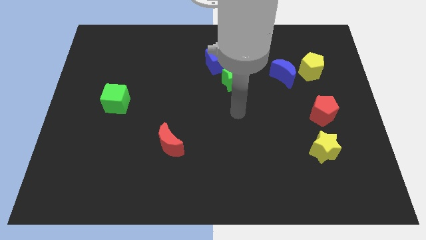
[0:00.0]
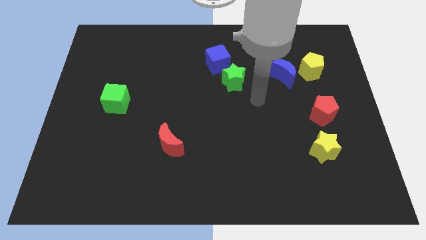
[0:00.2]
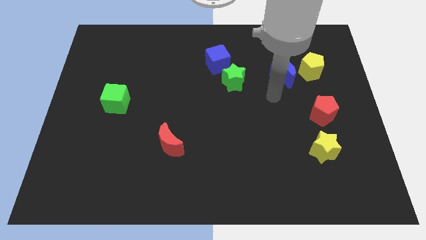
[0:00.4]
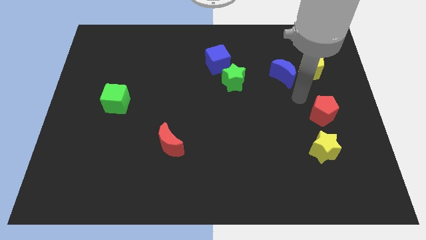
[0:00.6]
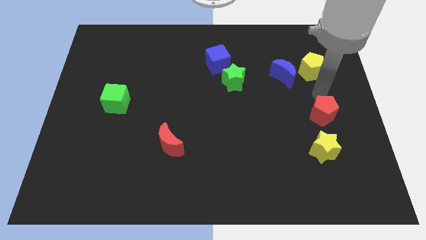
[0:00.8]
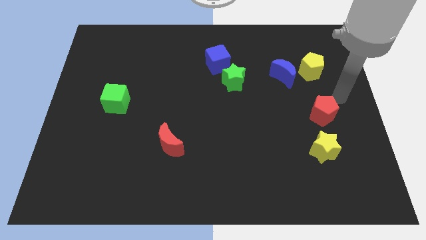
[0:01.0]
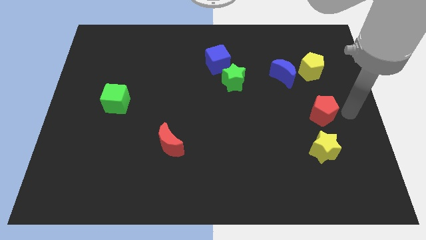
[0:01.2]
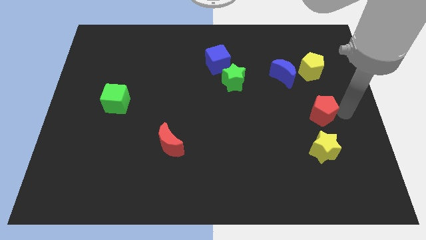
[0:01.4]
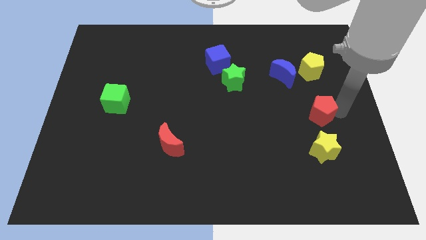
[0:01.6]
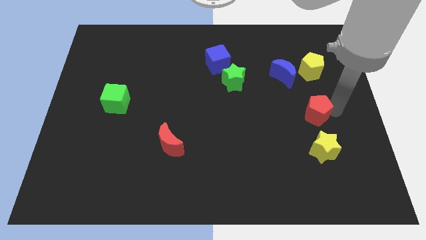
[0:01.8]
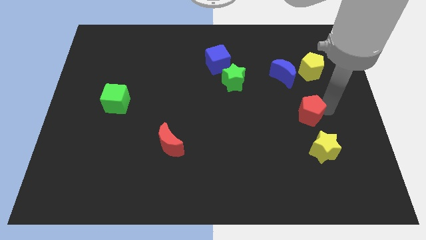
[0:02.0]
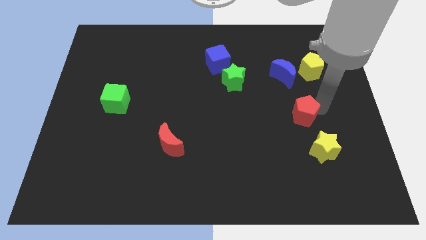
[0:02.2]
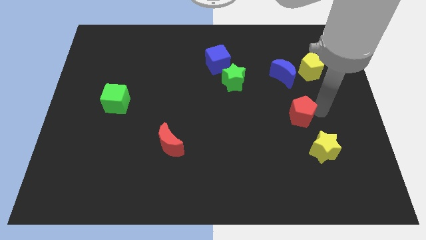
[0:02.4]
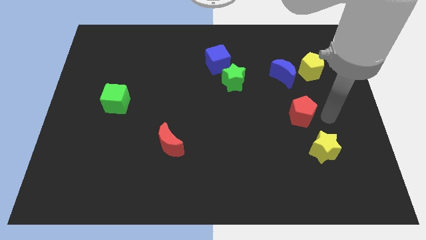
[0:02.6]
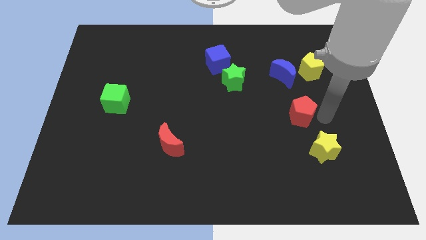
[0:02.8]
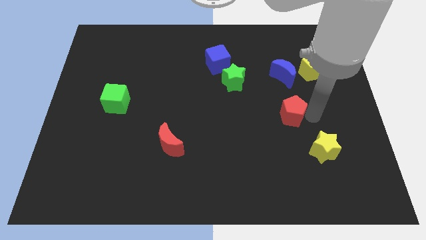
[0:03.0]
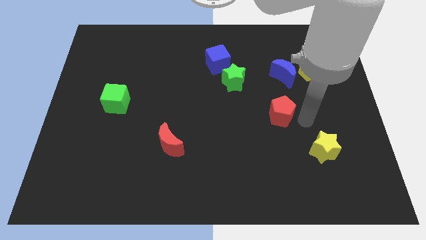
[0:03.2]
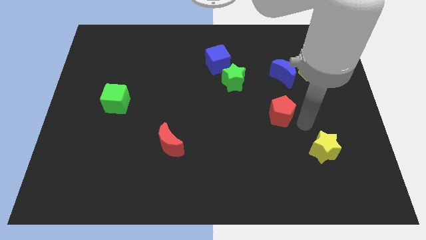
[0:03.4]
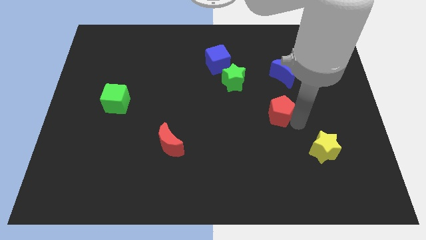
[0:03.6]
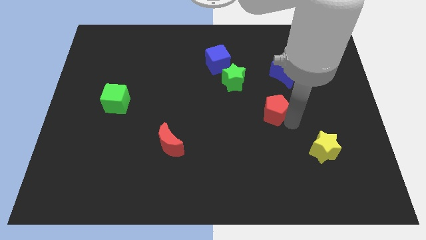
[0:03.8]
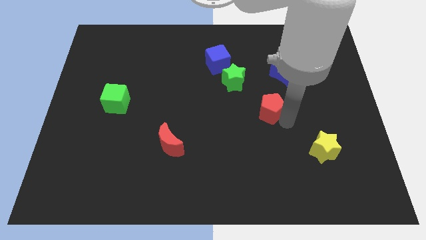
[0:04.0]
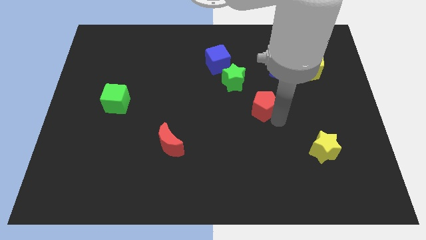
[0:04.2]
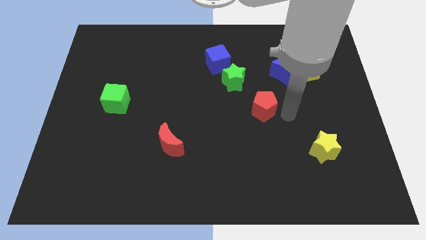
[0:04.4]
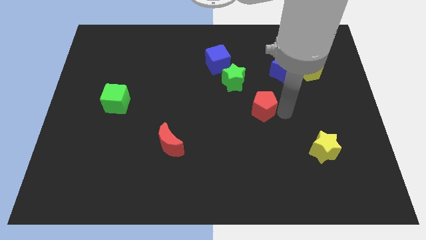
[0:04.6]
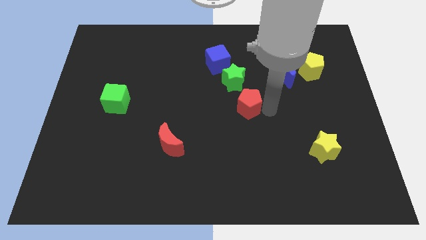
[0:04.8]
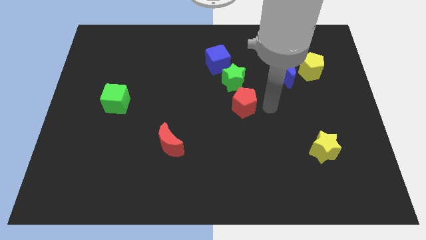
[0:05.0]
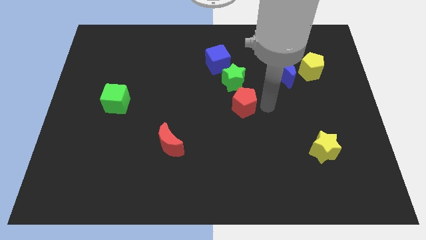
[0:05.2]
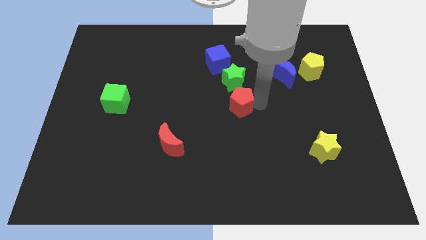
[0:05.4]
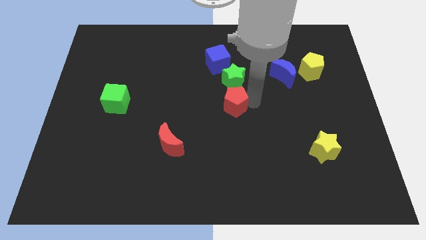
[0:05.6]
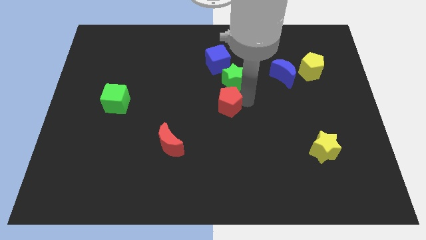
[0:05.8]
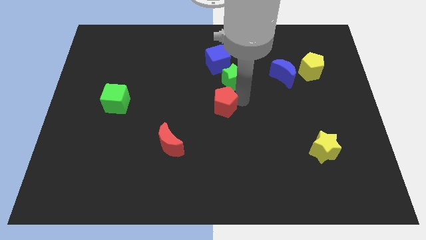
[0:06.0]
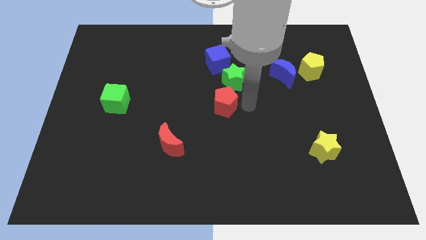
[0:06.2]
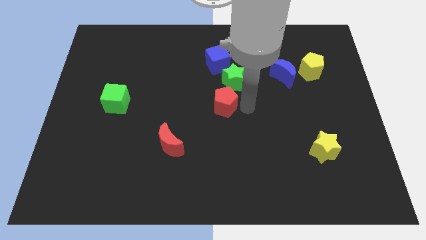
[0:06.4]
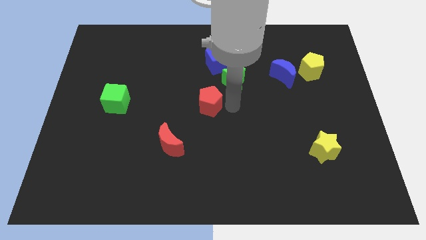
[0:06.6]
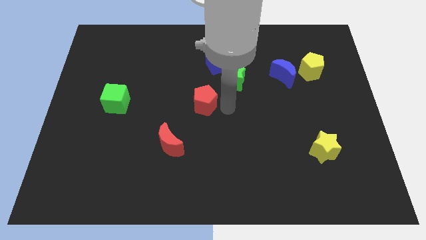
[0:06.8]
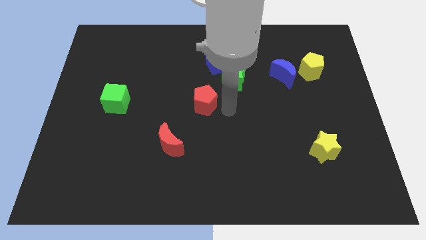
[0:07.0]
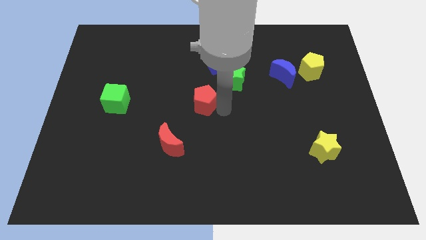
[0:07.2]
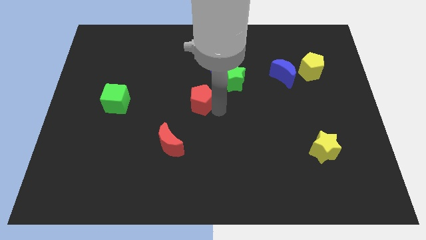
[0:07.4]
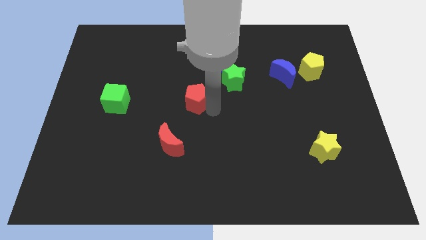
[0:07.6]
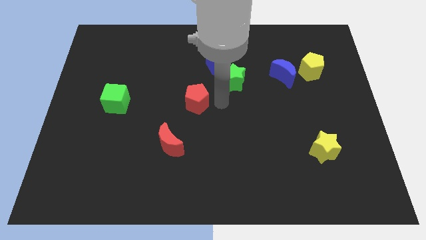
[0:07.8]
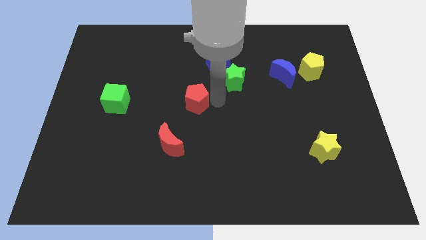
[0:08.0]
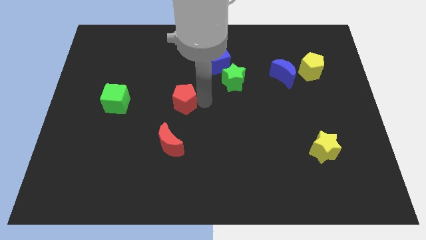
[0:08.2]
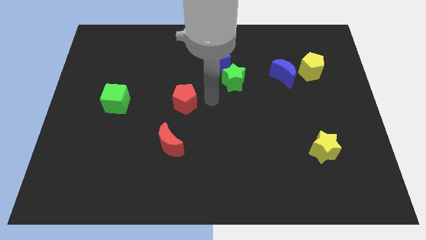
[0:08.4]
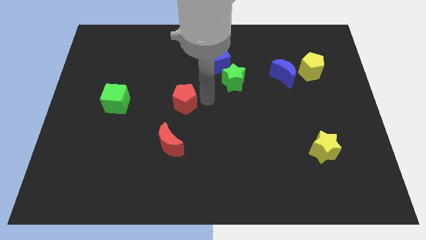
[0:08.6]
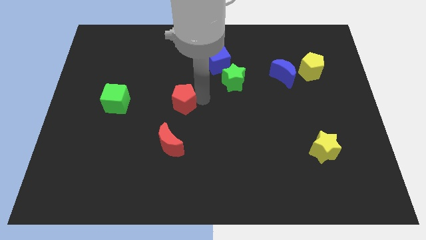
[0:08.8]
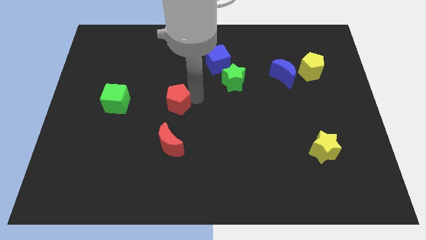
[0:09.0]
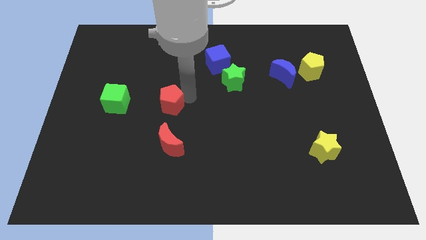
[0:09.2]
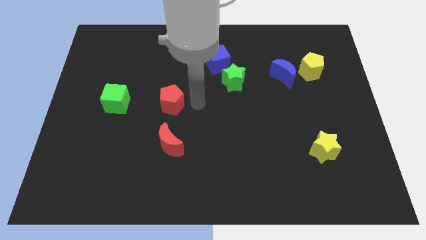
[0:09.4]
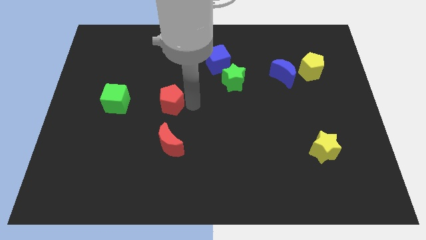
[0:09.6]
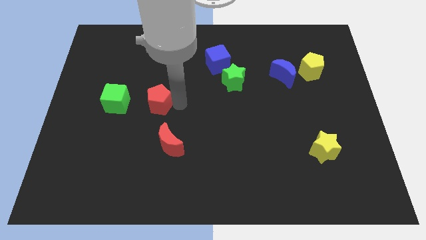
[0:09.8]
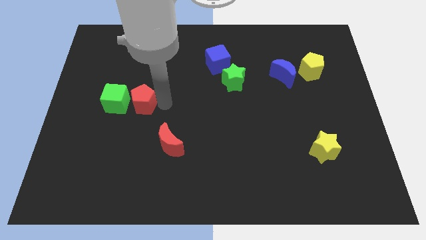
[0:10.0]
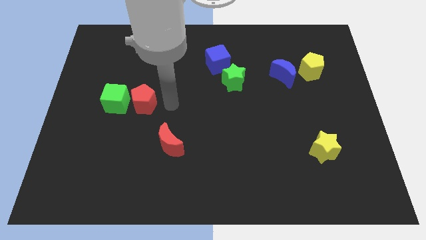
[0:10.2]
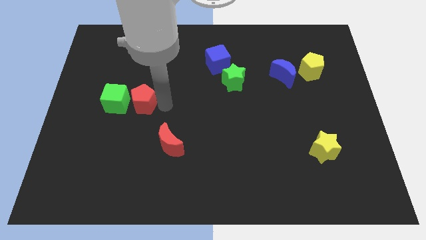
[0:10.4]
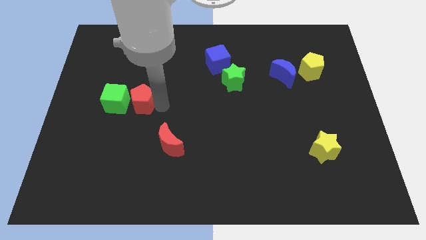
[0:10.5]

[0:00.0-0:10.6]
put the red pentagon close to the green cube

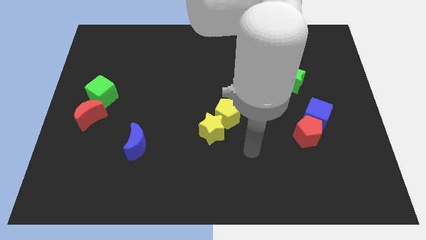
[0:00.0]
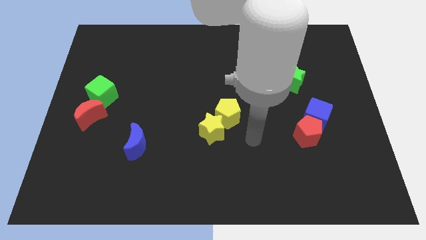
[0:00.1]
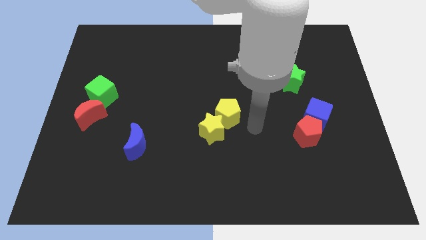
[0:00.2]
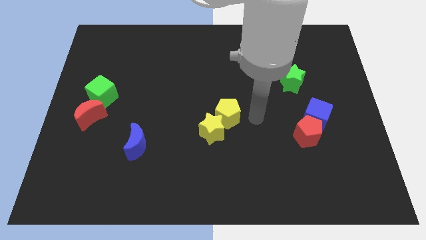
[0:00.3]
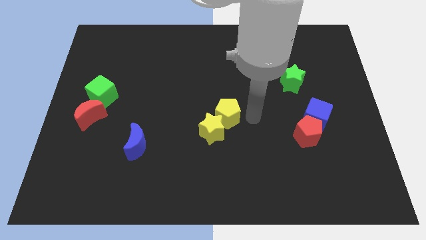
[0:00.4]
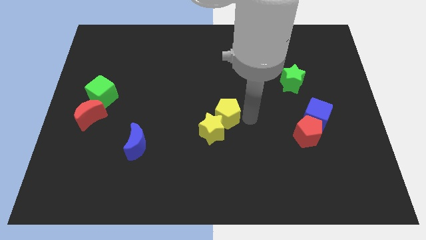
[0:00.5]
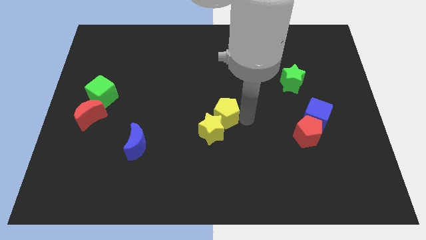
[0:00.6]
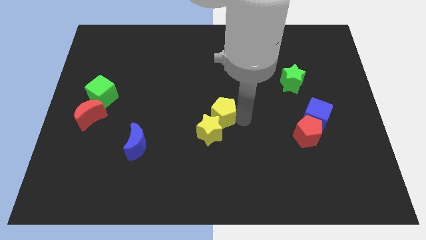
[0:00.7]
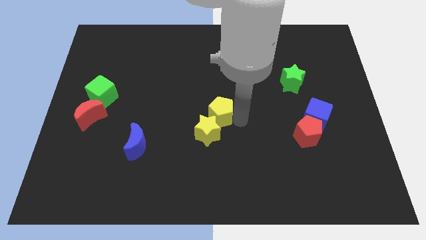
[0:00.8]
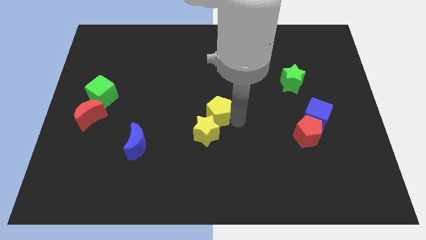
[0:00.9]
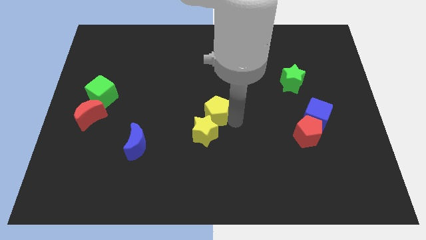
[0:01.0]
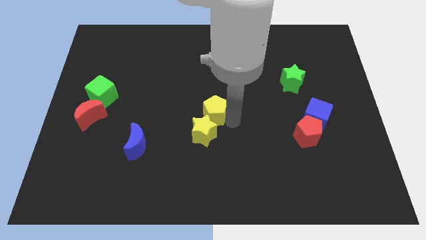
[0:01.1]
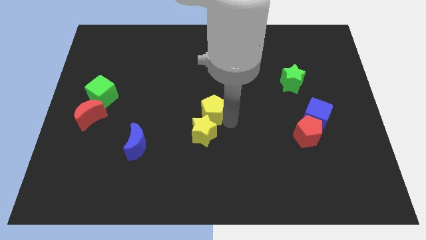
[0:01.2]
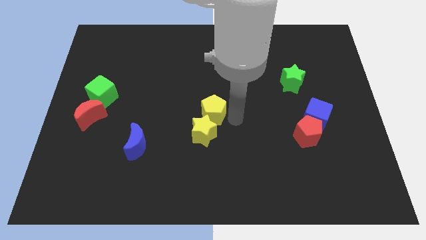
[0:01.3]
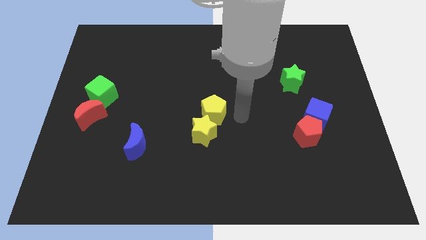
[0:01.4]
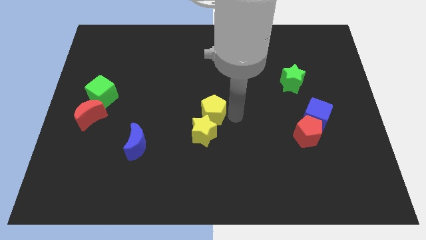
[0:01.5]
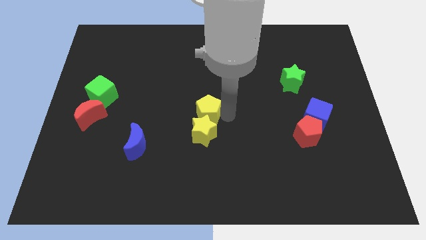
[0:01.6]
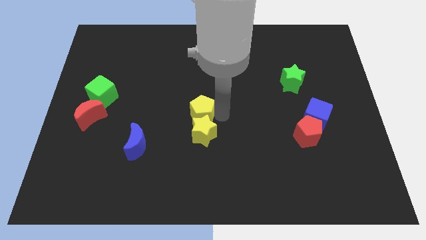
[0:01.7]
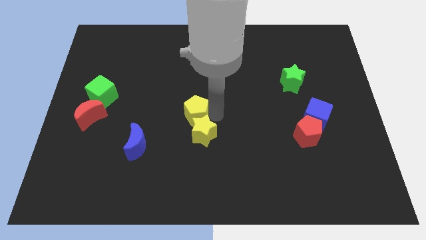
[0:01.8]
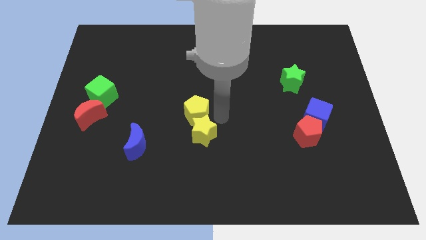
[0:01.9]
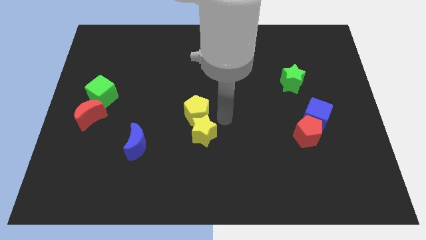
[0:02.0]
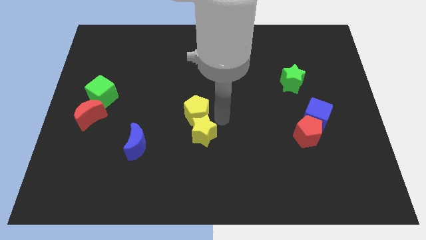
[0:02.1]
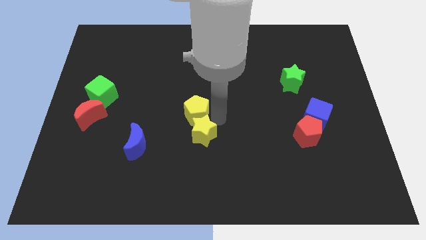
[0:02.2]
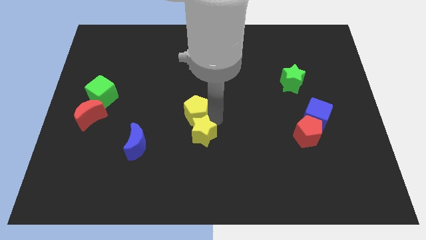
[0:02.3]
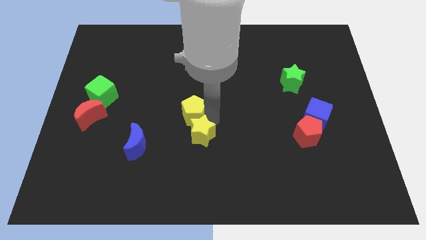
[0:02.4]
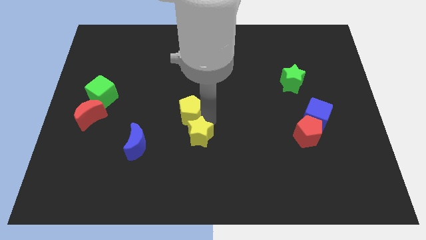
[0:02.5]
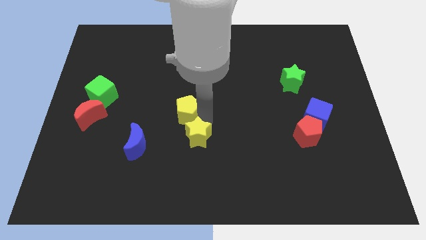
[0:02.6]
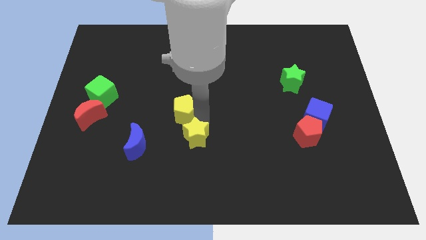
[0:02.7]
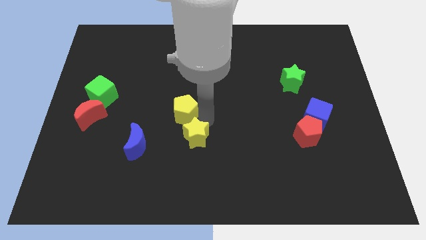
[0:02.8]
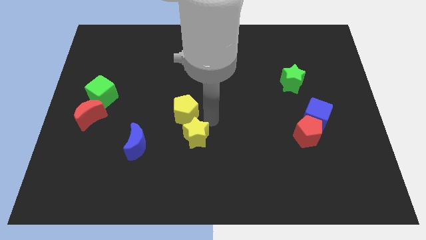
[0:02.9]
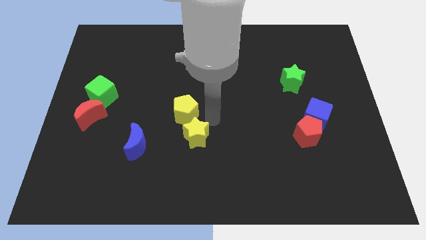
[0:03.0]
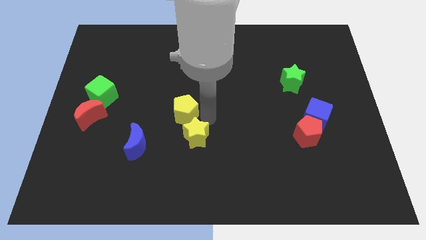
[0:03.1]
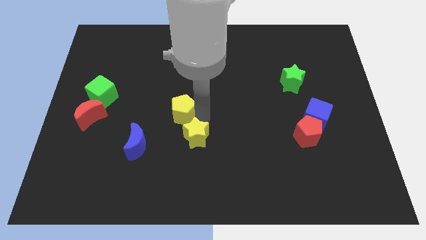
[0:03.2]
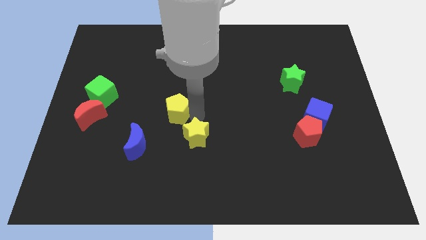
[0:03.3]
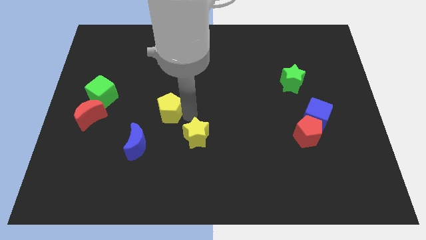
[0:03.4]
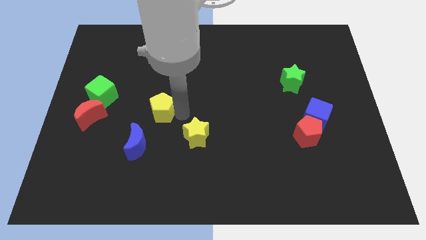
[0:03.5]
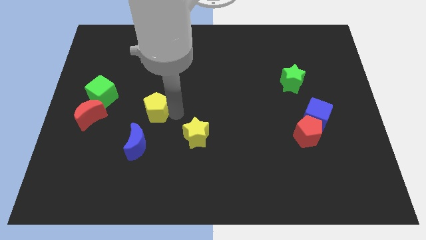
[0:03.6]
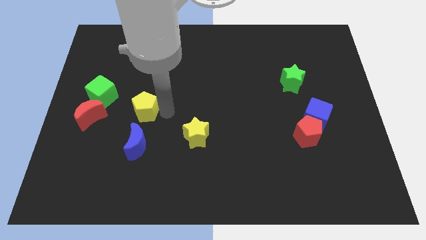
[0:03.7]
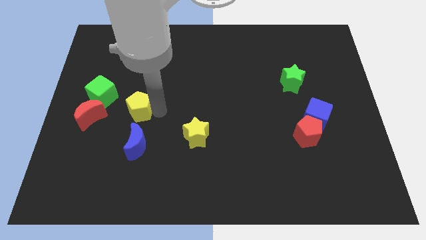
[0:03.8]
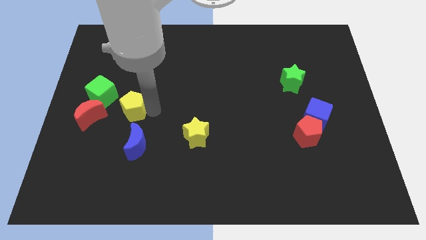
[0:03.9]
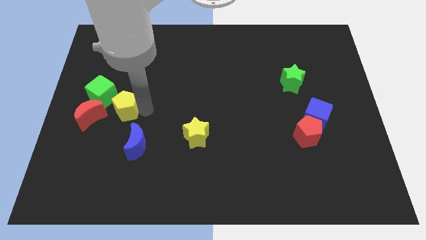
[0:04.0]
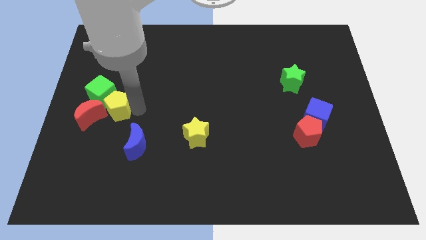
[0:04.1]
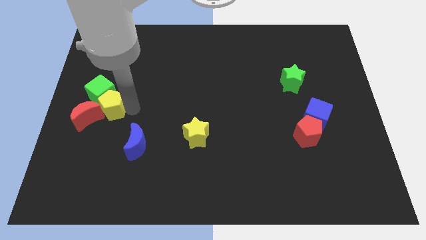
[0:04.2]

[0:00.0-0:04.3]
push the yellow pentagon towards the red moon
